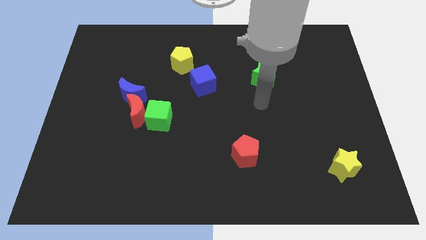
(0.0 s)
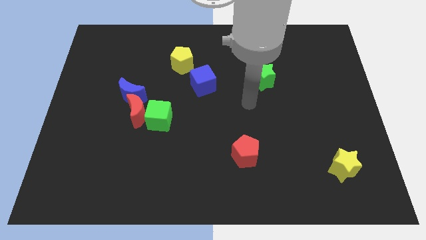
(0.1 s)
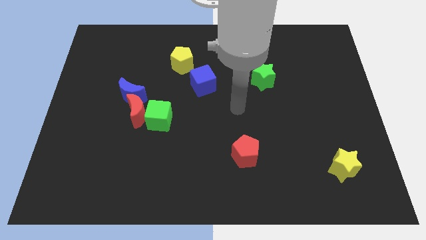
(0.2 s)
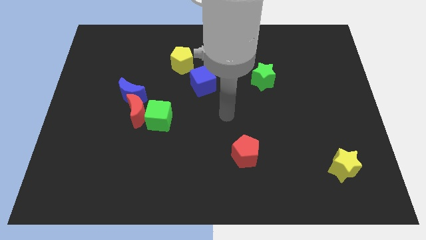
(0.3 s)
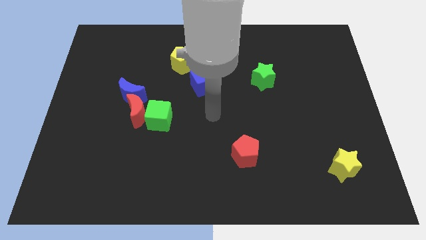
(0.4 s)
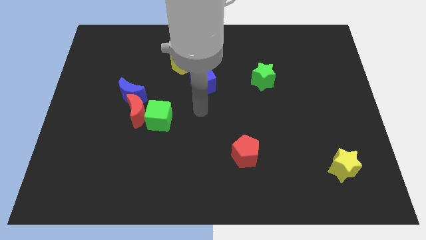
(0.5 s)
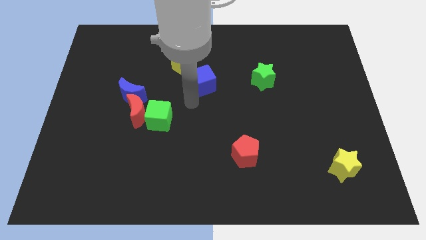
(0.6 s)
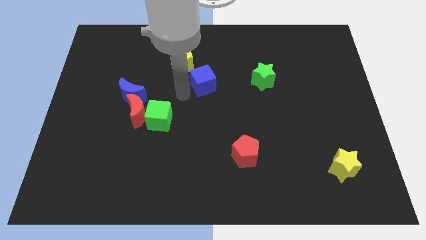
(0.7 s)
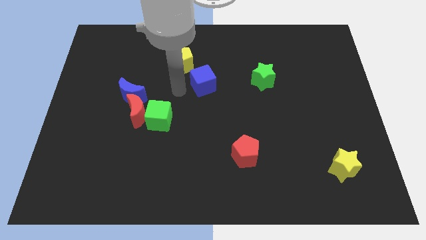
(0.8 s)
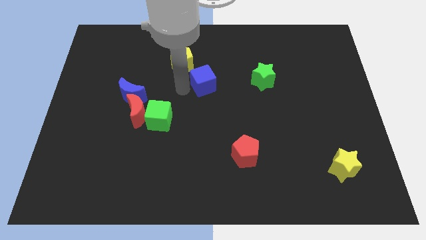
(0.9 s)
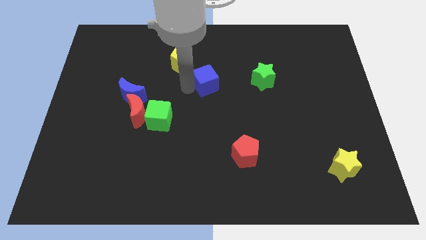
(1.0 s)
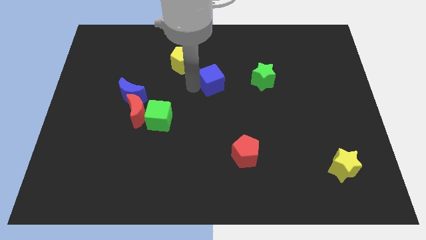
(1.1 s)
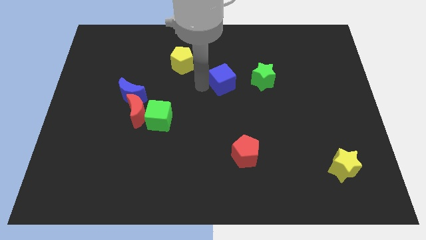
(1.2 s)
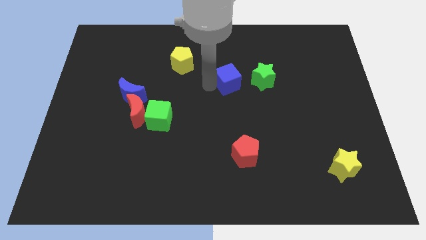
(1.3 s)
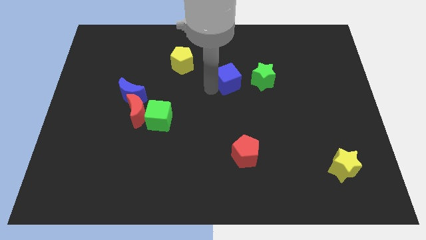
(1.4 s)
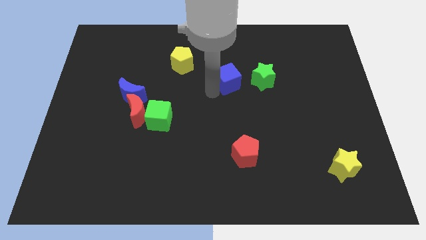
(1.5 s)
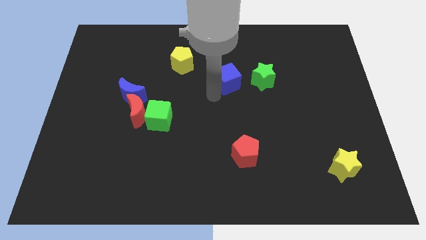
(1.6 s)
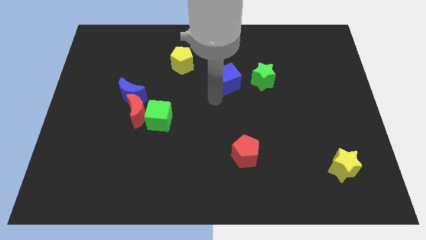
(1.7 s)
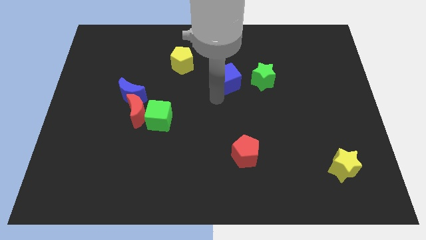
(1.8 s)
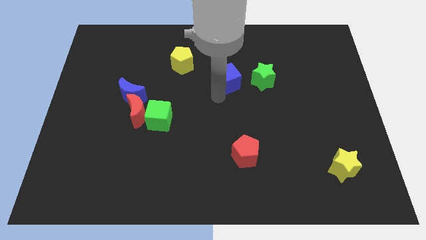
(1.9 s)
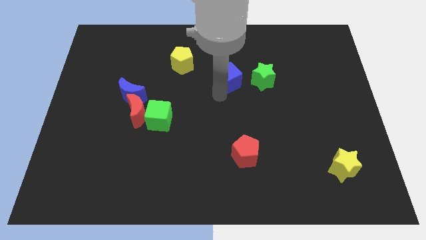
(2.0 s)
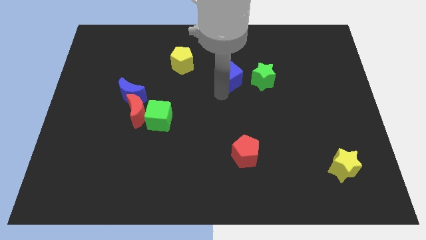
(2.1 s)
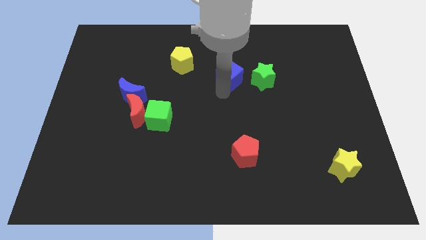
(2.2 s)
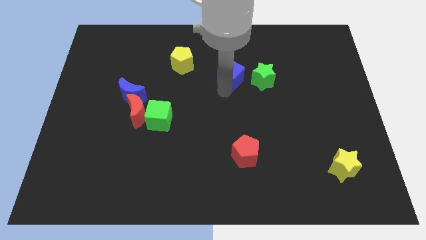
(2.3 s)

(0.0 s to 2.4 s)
push the blue cube a bit right

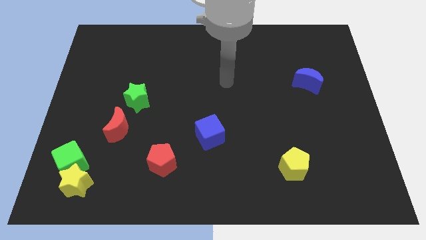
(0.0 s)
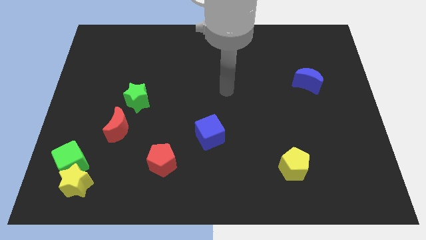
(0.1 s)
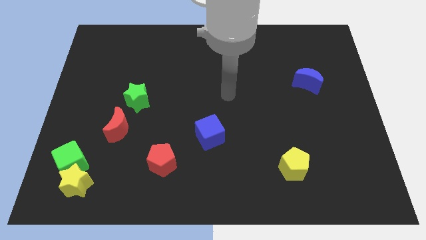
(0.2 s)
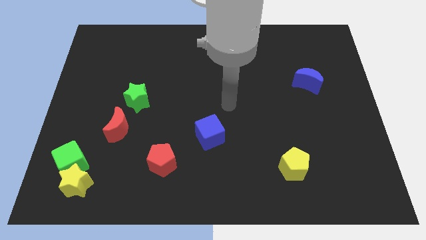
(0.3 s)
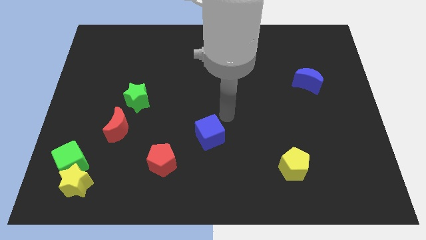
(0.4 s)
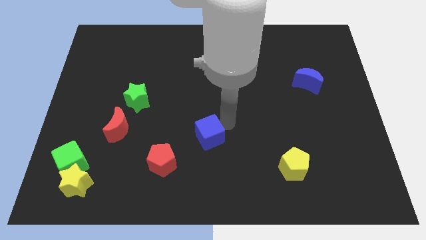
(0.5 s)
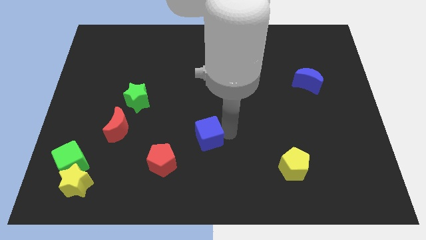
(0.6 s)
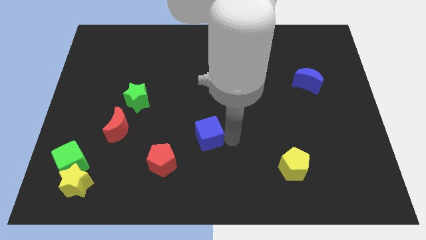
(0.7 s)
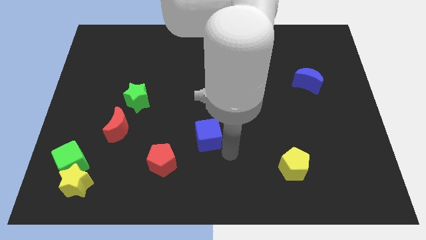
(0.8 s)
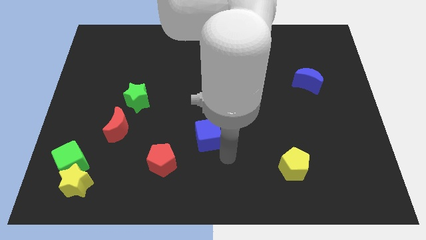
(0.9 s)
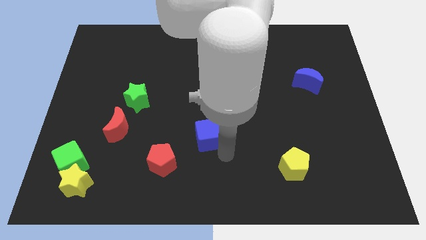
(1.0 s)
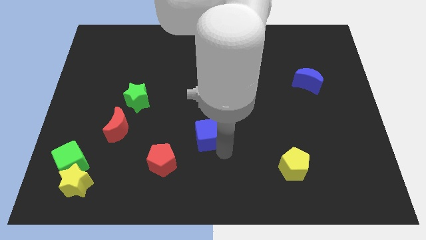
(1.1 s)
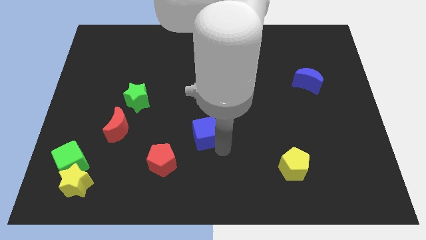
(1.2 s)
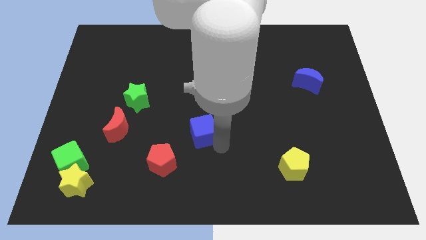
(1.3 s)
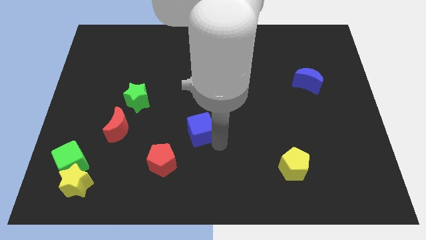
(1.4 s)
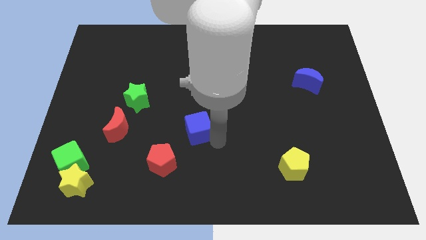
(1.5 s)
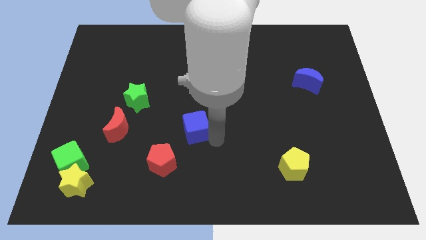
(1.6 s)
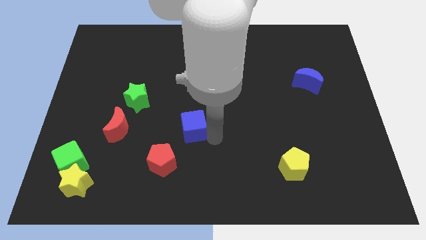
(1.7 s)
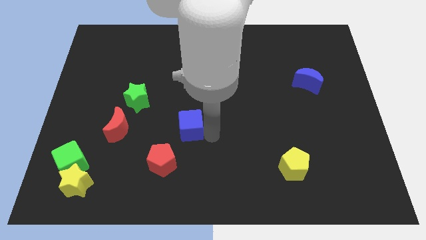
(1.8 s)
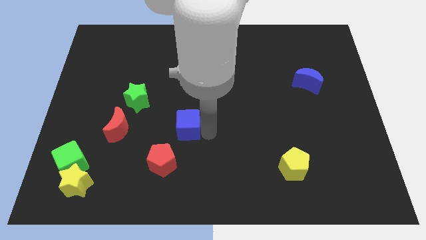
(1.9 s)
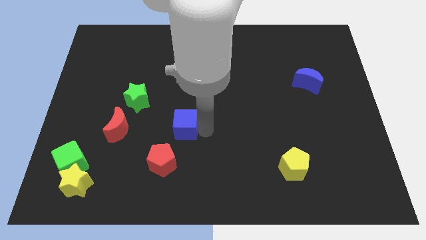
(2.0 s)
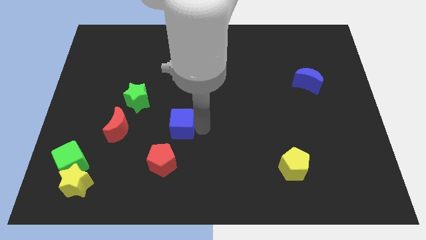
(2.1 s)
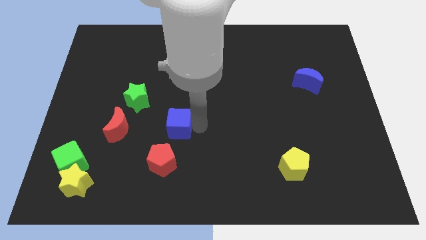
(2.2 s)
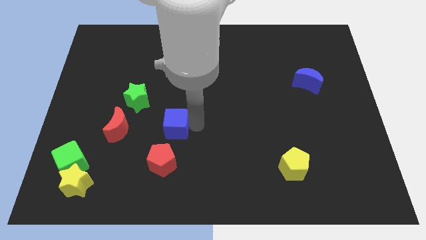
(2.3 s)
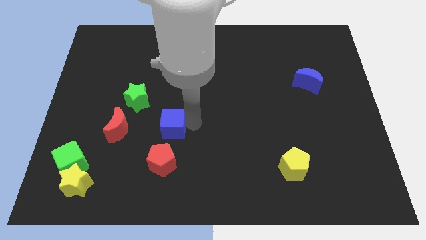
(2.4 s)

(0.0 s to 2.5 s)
push the blue cube up and then left slightly

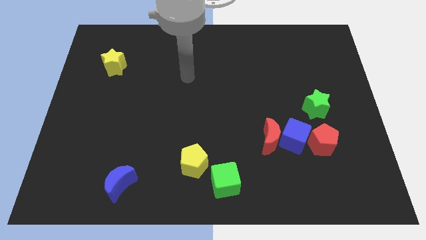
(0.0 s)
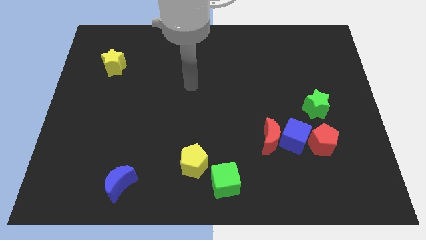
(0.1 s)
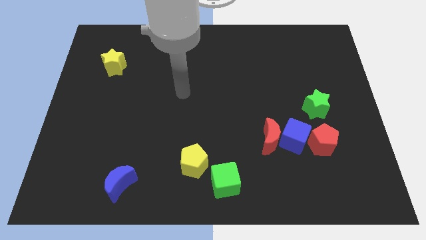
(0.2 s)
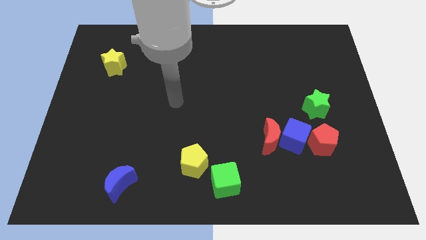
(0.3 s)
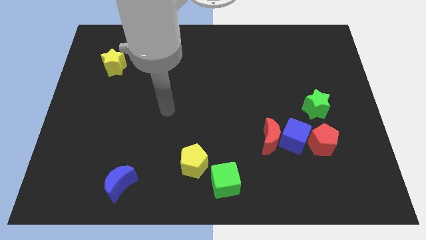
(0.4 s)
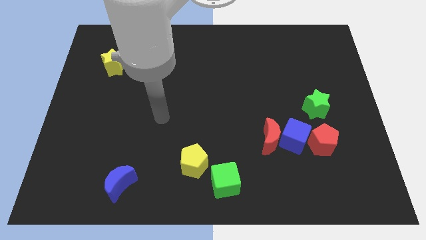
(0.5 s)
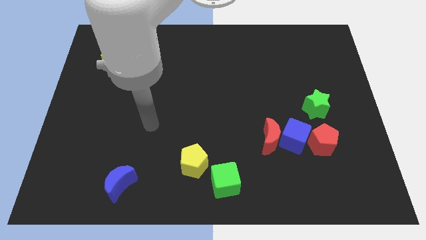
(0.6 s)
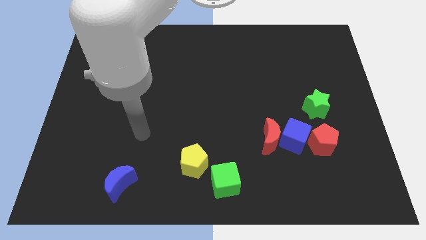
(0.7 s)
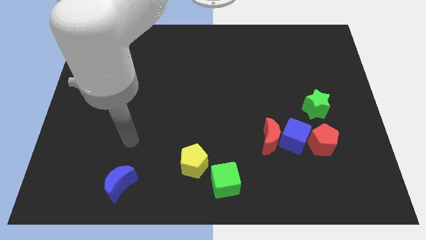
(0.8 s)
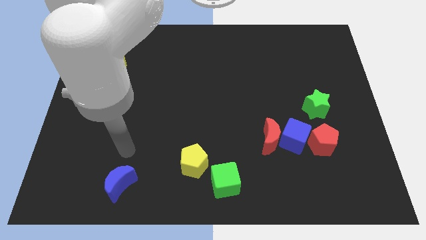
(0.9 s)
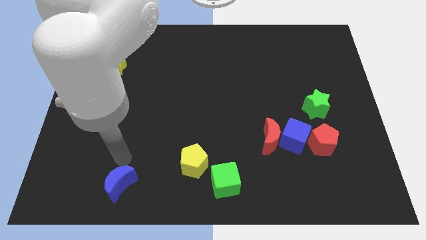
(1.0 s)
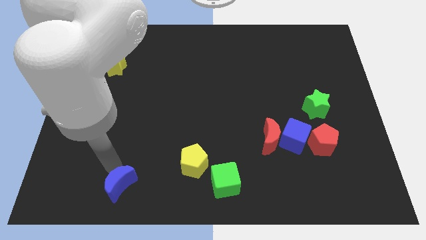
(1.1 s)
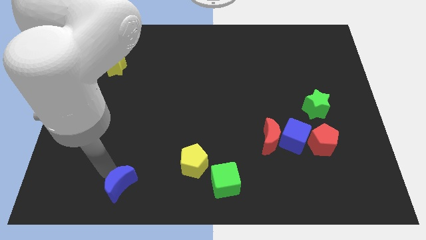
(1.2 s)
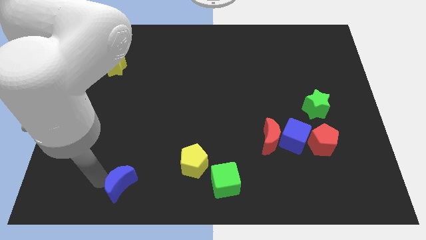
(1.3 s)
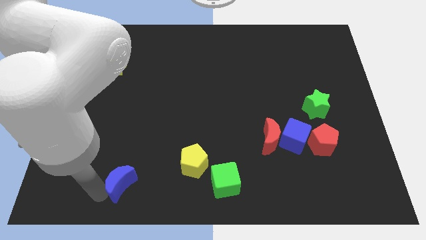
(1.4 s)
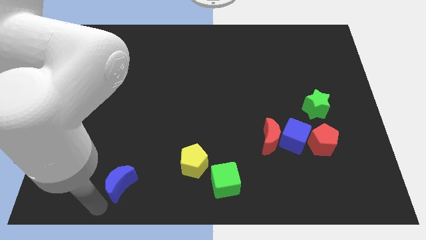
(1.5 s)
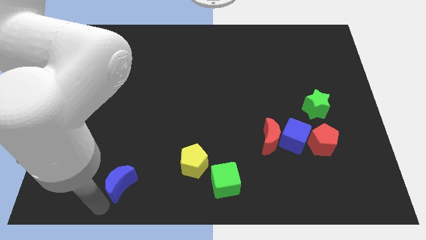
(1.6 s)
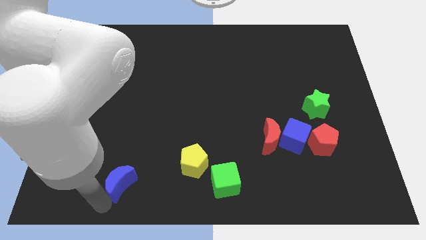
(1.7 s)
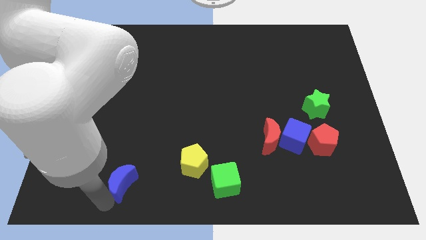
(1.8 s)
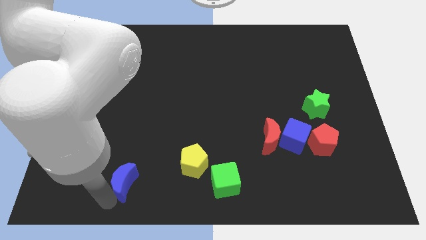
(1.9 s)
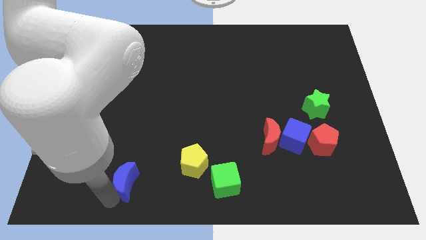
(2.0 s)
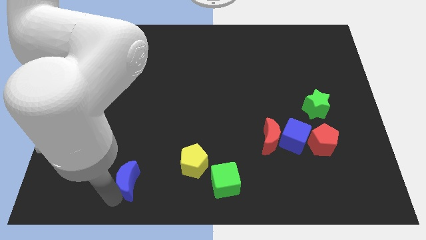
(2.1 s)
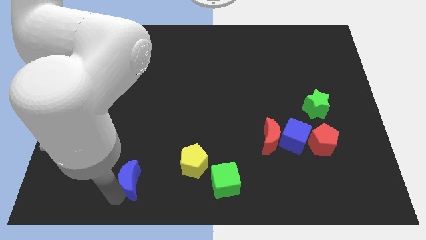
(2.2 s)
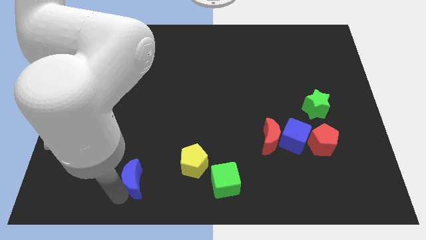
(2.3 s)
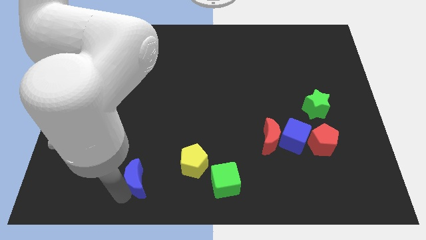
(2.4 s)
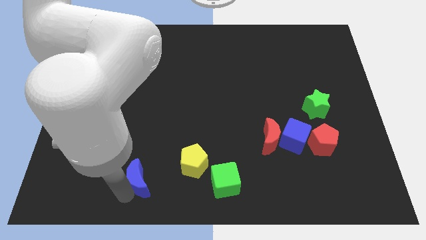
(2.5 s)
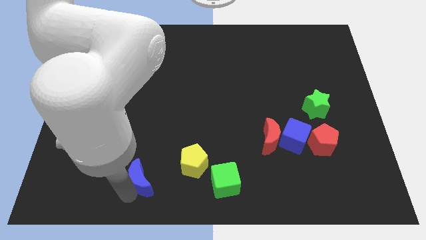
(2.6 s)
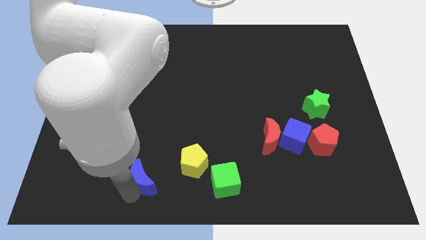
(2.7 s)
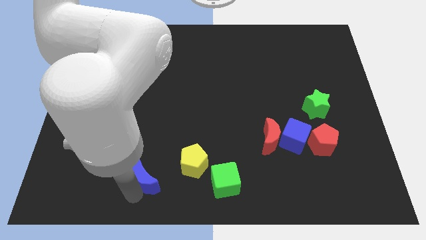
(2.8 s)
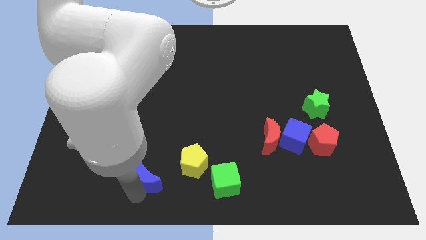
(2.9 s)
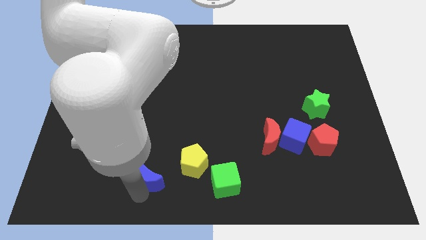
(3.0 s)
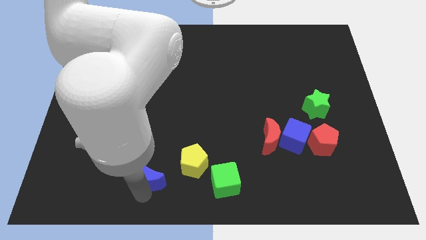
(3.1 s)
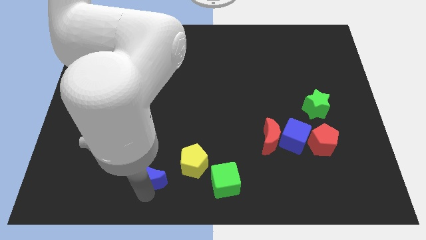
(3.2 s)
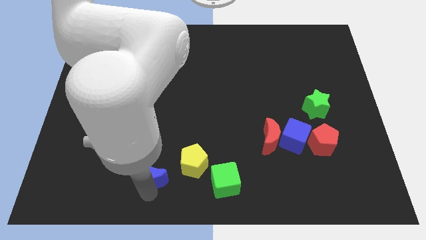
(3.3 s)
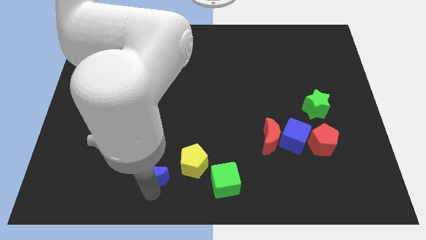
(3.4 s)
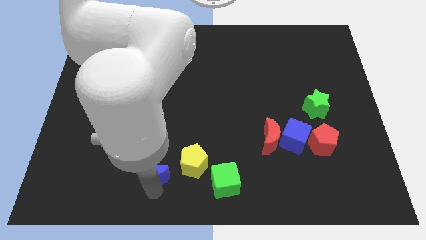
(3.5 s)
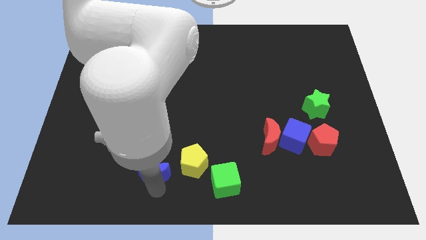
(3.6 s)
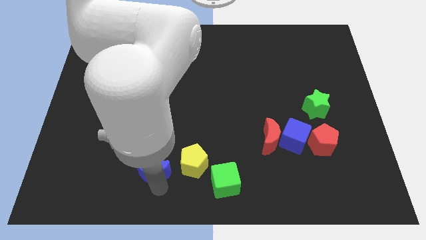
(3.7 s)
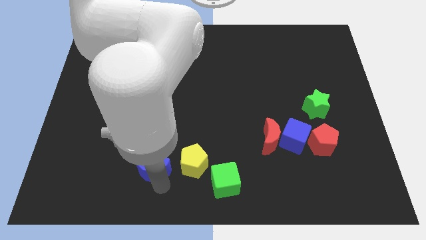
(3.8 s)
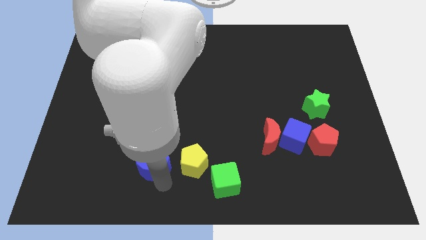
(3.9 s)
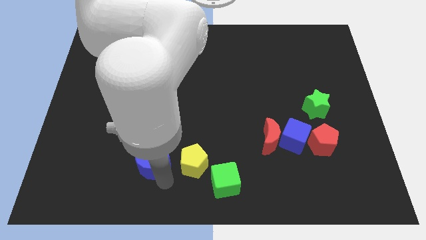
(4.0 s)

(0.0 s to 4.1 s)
slide the blue moon upwards and then right slightly
